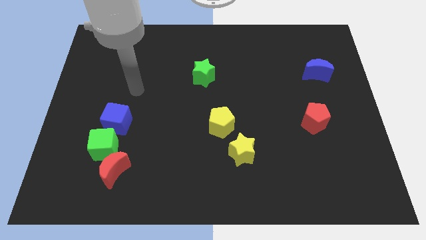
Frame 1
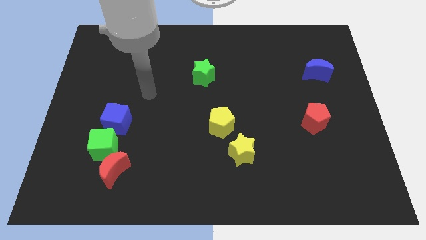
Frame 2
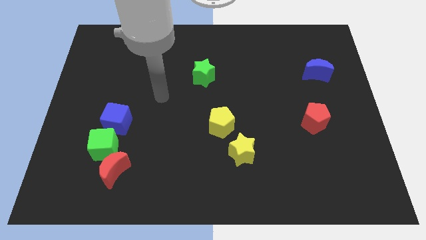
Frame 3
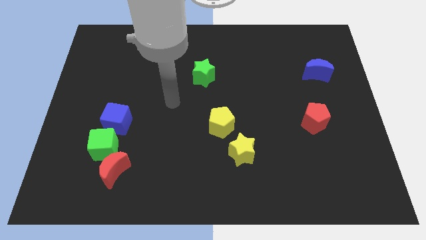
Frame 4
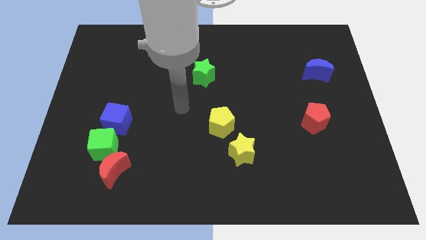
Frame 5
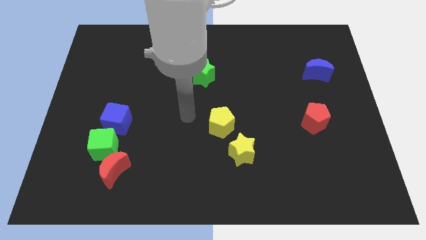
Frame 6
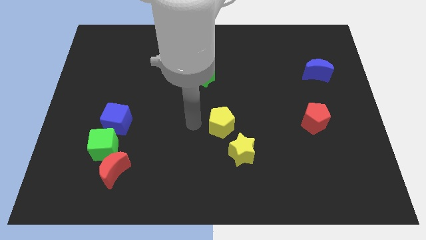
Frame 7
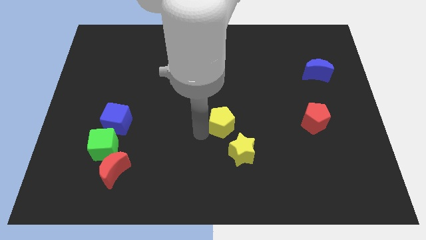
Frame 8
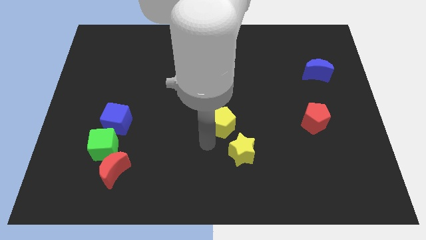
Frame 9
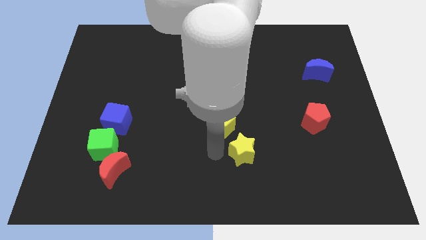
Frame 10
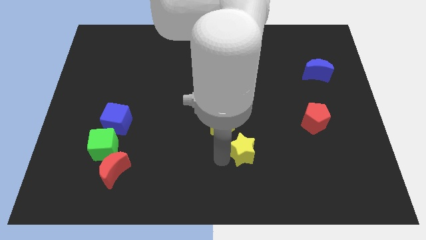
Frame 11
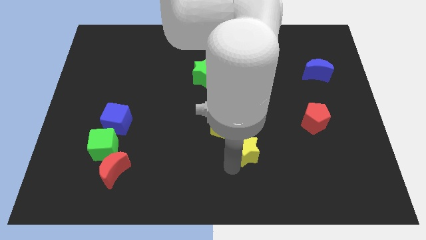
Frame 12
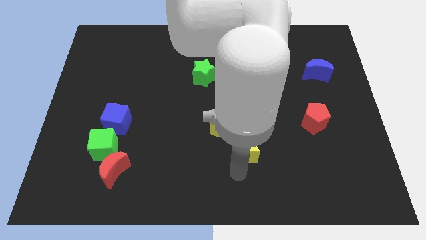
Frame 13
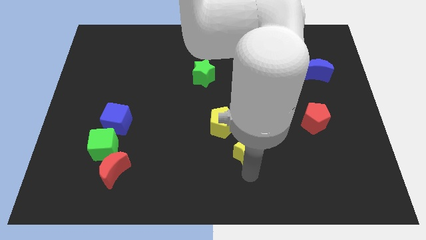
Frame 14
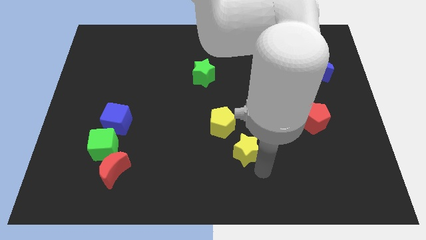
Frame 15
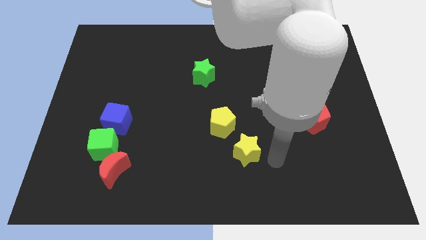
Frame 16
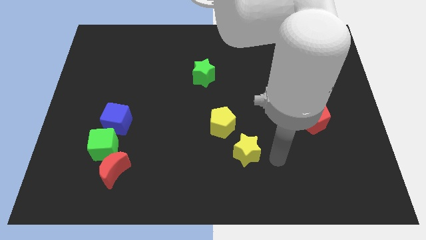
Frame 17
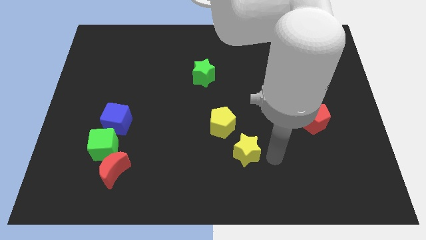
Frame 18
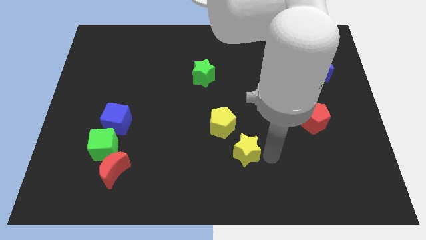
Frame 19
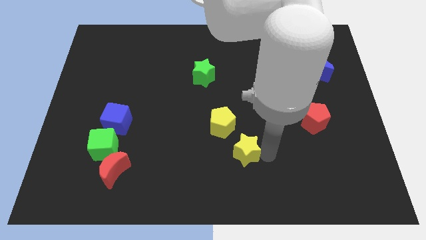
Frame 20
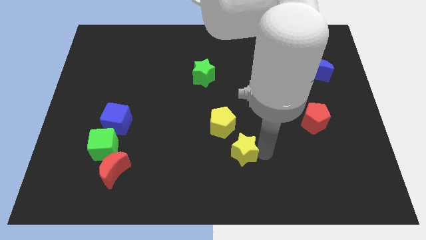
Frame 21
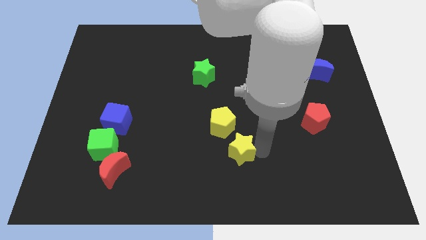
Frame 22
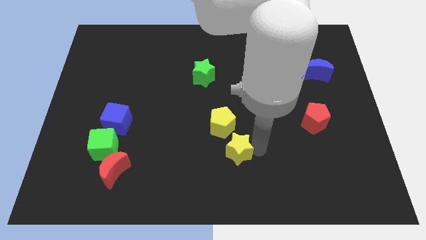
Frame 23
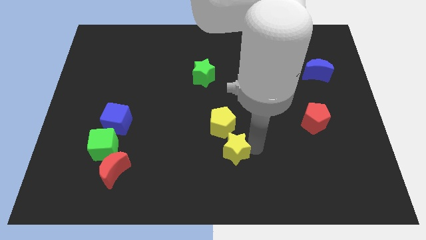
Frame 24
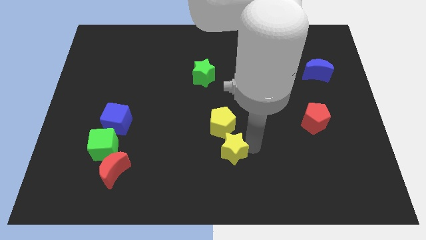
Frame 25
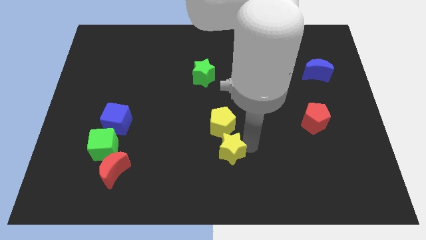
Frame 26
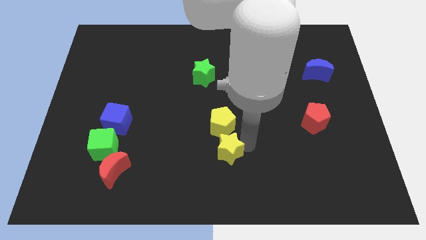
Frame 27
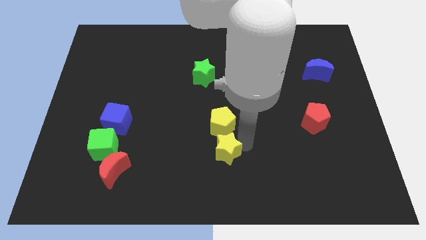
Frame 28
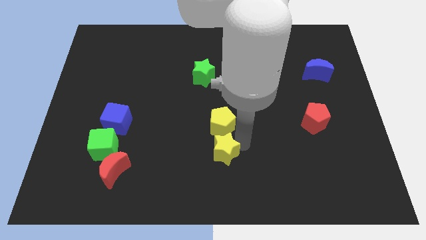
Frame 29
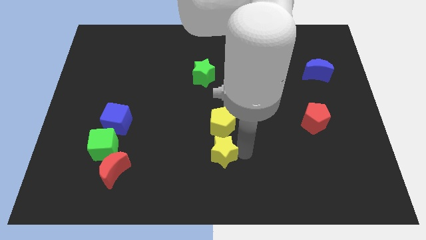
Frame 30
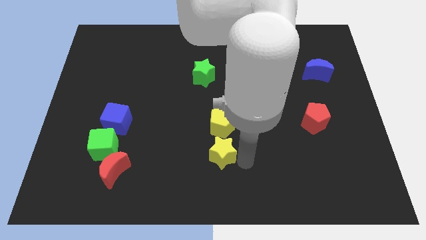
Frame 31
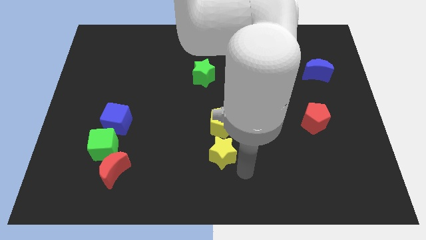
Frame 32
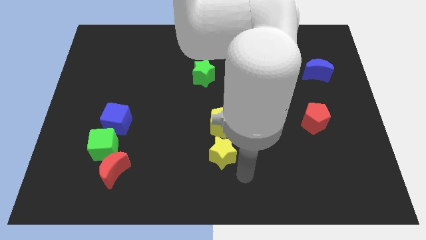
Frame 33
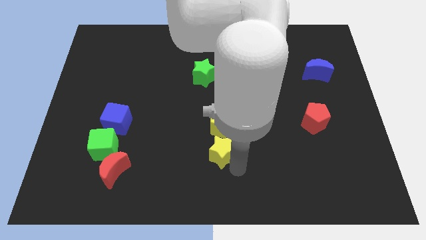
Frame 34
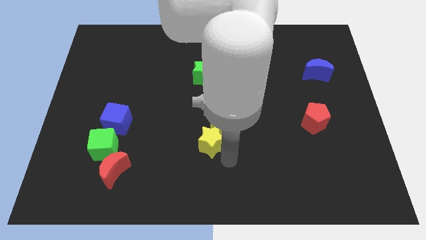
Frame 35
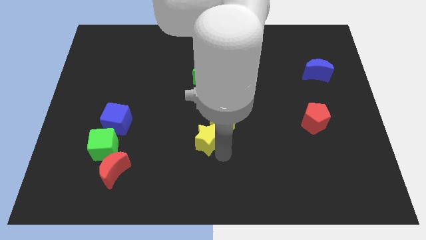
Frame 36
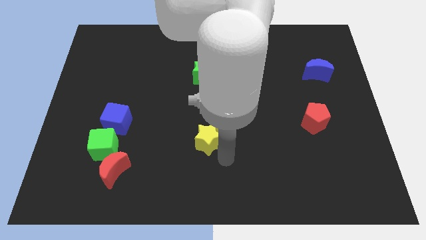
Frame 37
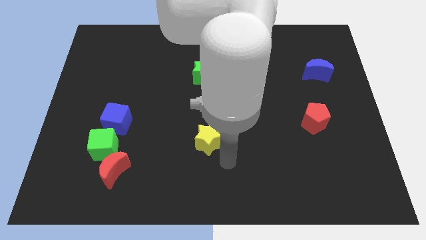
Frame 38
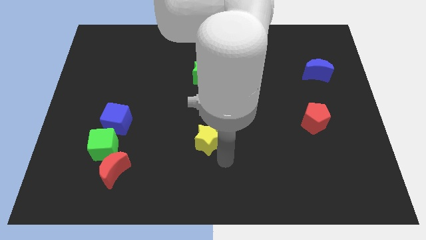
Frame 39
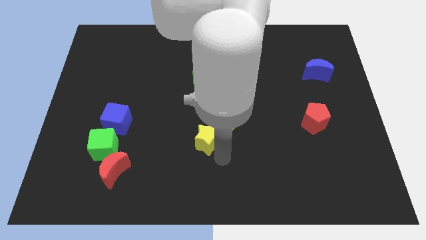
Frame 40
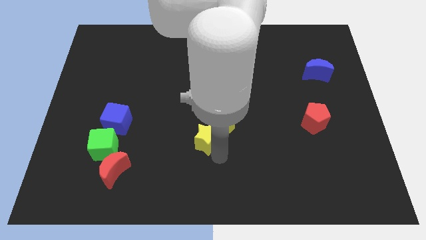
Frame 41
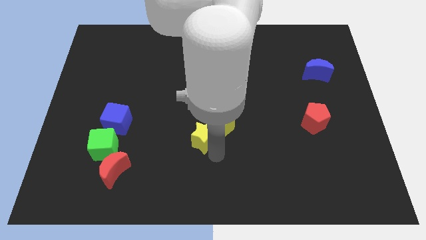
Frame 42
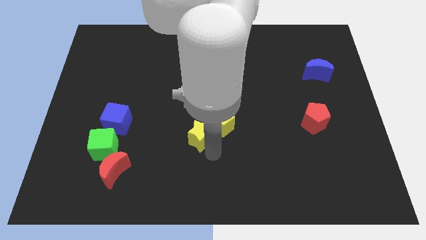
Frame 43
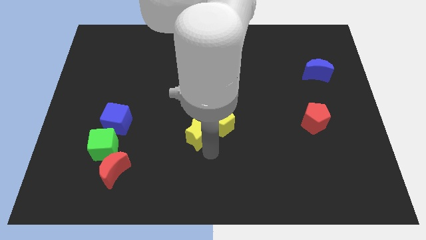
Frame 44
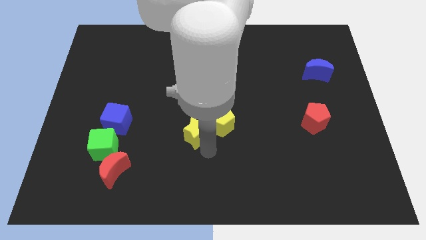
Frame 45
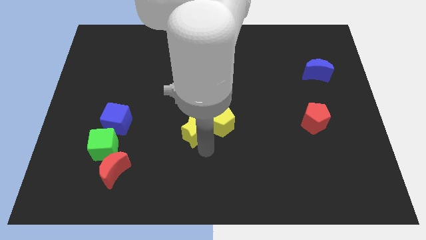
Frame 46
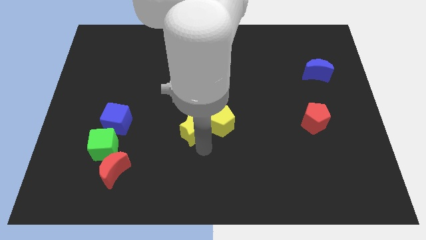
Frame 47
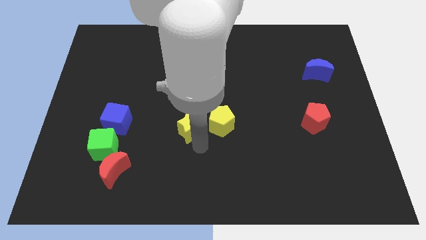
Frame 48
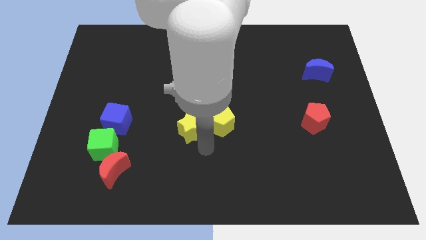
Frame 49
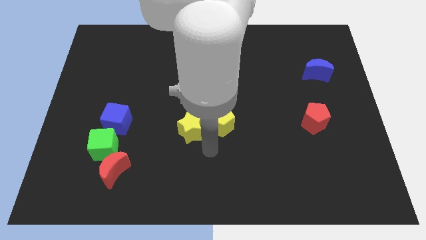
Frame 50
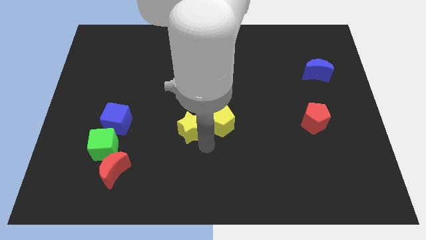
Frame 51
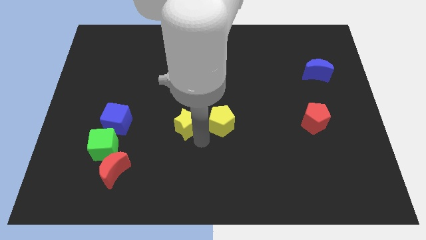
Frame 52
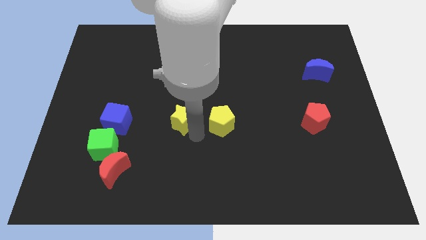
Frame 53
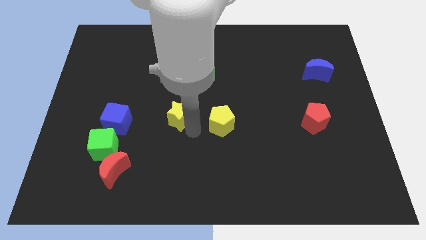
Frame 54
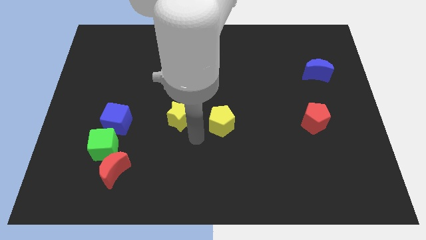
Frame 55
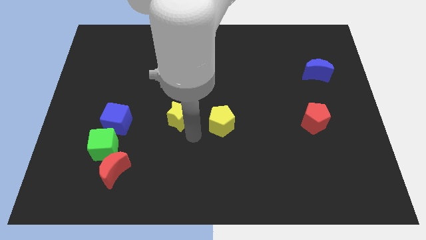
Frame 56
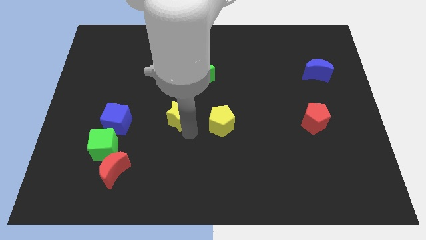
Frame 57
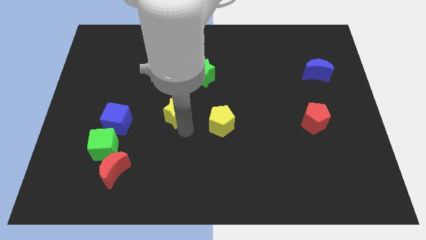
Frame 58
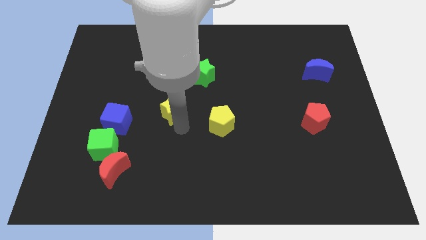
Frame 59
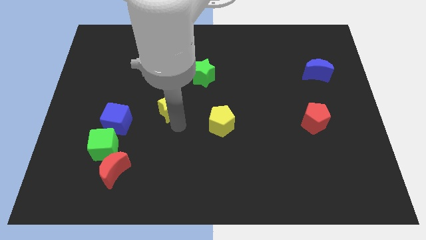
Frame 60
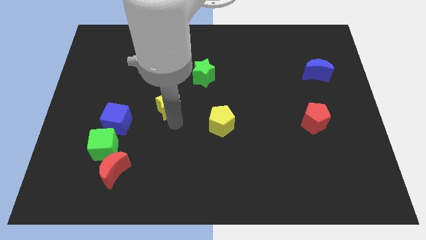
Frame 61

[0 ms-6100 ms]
slide the yellow star up and left diagonally

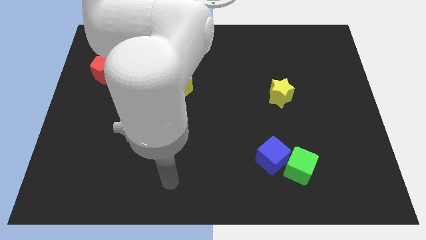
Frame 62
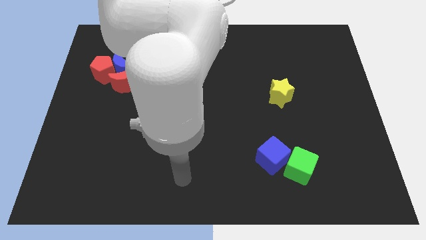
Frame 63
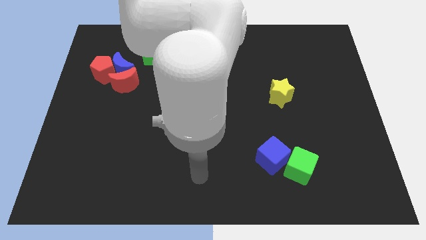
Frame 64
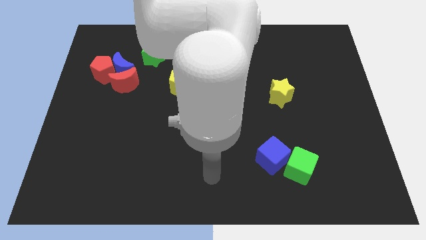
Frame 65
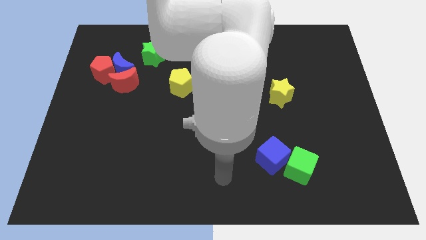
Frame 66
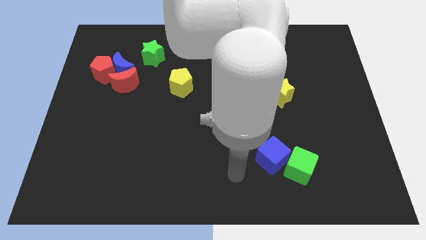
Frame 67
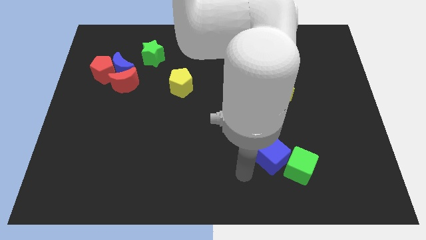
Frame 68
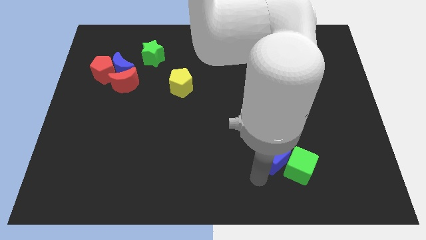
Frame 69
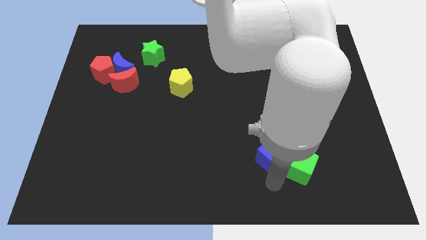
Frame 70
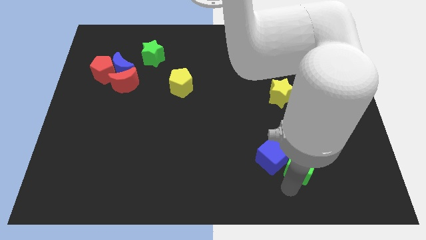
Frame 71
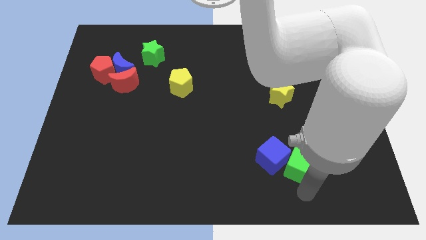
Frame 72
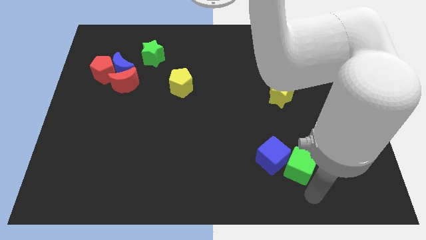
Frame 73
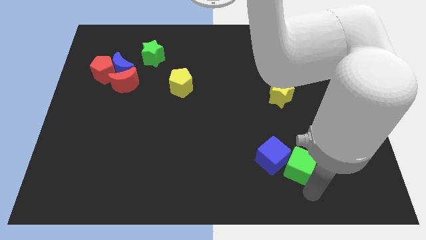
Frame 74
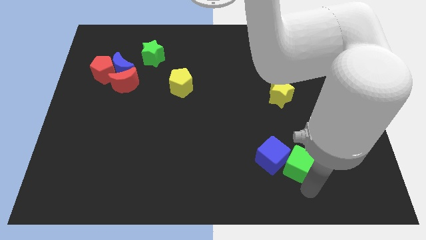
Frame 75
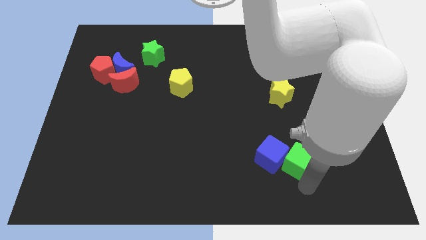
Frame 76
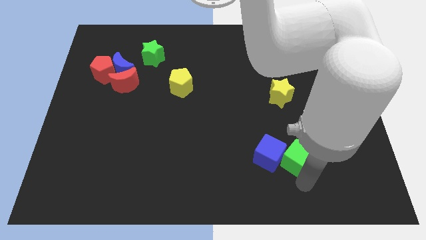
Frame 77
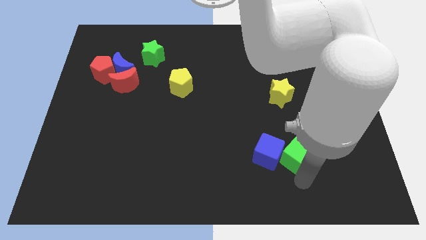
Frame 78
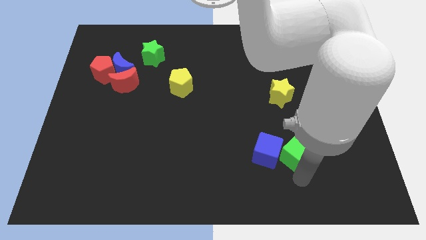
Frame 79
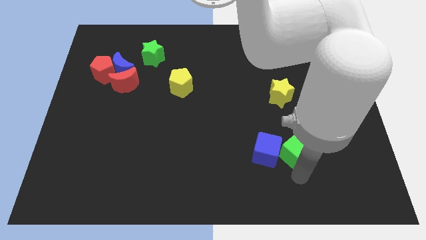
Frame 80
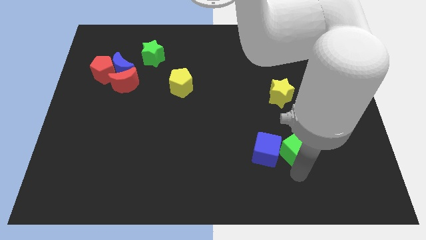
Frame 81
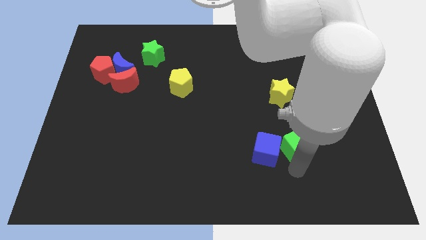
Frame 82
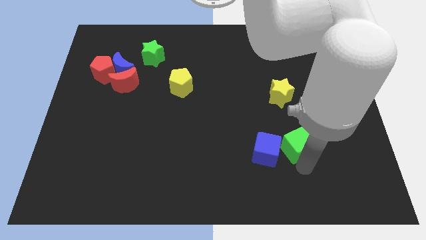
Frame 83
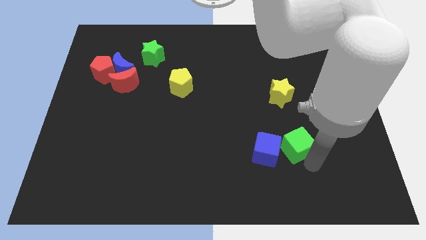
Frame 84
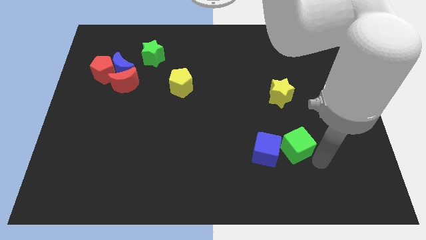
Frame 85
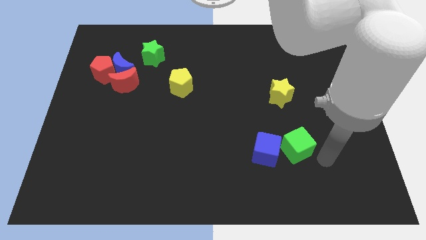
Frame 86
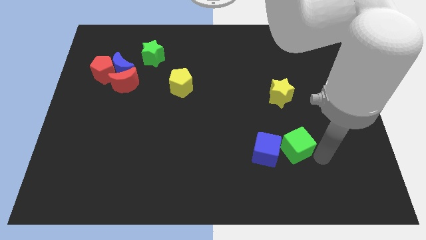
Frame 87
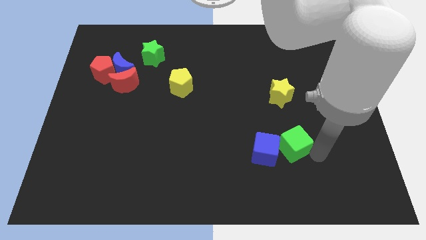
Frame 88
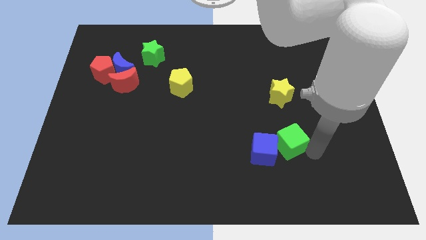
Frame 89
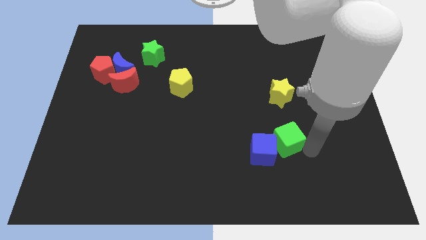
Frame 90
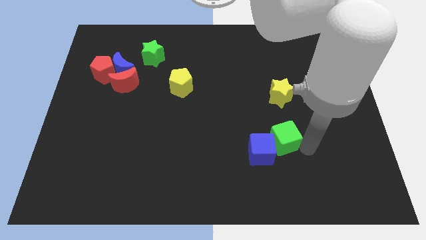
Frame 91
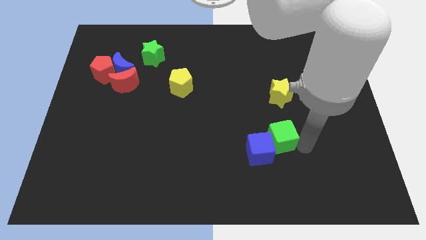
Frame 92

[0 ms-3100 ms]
push the green cube a bit diagonally up and to the left
